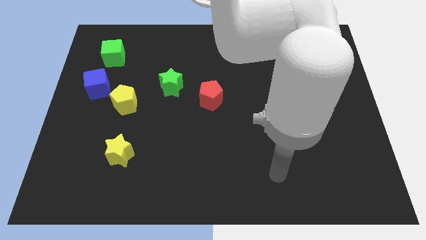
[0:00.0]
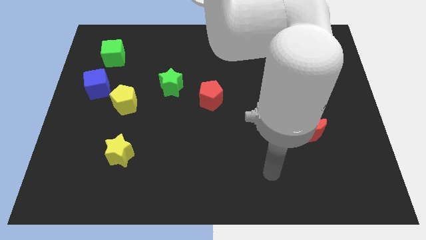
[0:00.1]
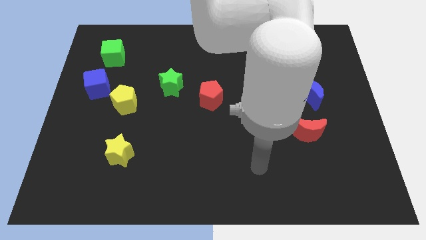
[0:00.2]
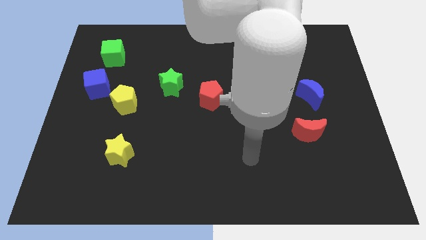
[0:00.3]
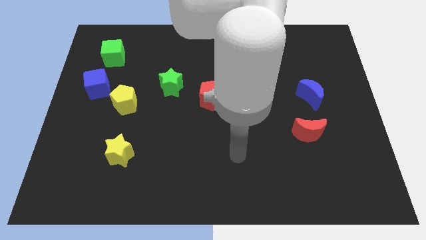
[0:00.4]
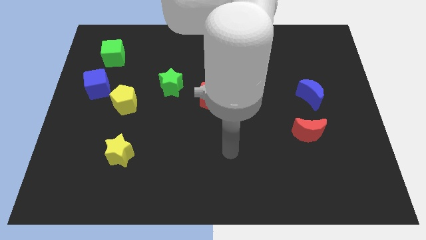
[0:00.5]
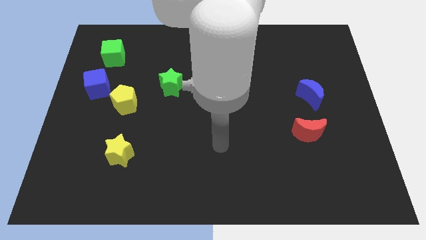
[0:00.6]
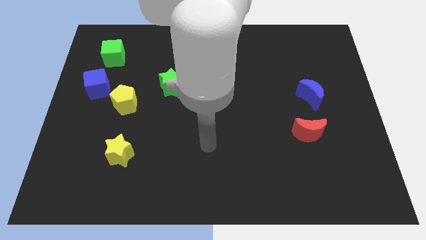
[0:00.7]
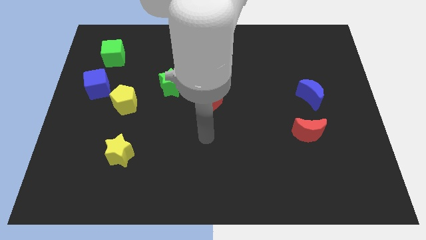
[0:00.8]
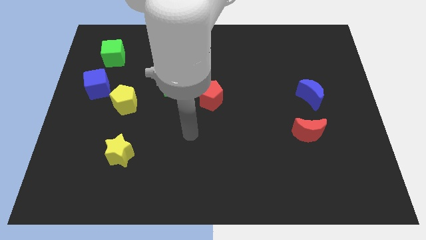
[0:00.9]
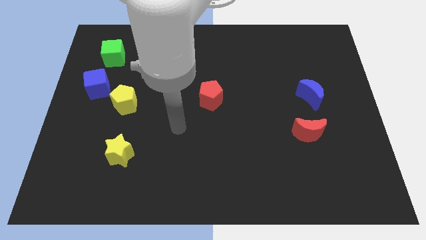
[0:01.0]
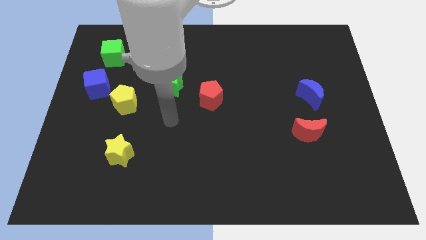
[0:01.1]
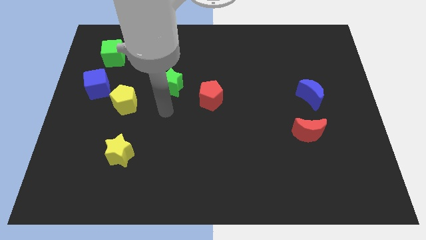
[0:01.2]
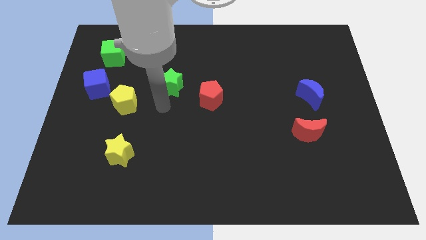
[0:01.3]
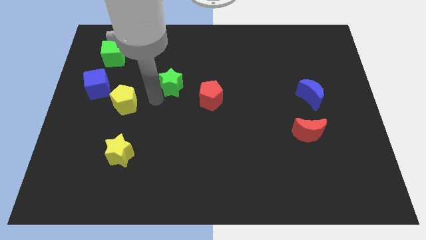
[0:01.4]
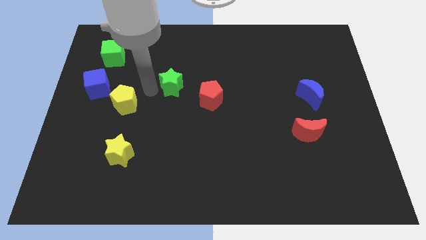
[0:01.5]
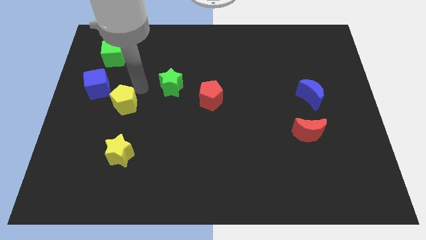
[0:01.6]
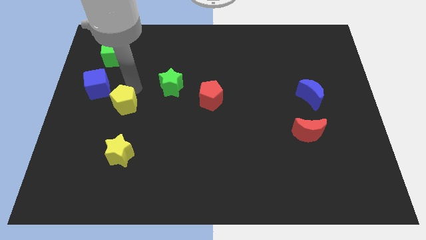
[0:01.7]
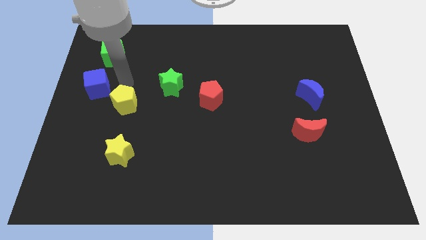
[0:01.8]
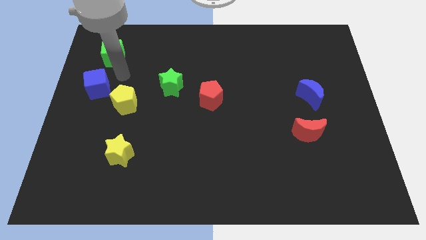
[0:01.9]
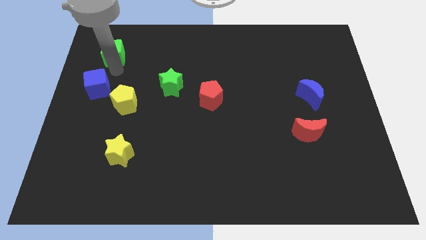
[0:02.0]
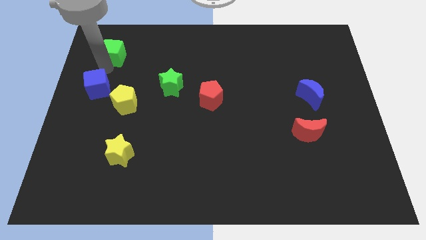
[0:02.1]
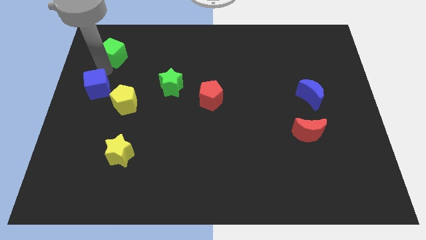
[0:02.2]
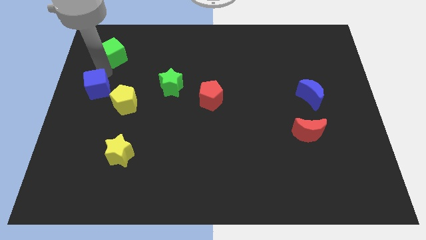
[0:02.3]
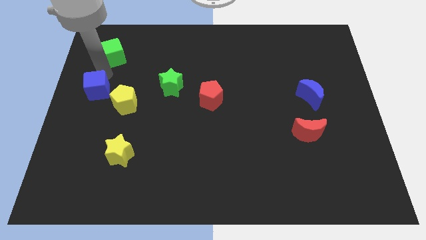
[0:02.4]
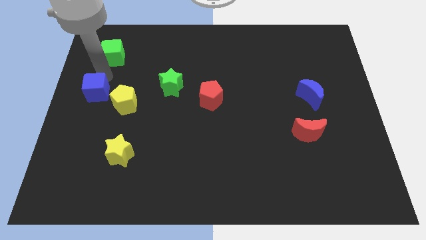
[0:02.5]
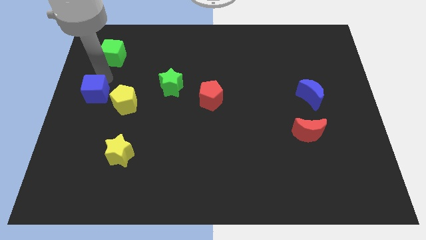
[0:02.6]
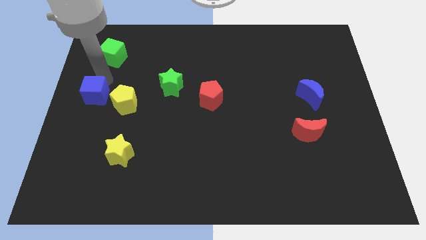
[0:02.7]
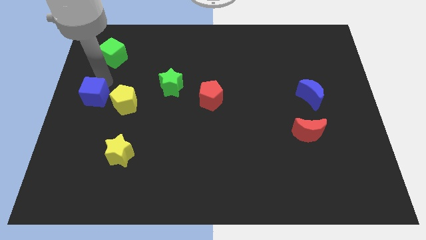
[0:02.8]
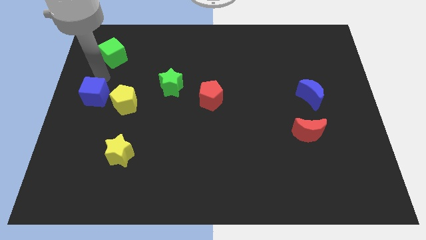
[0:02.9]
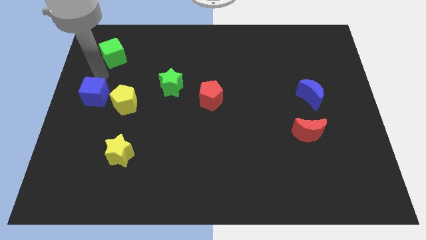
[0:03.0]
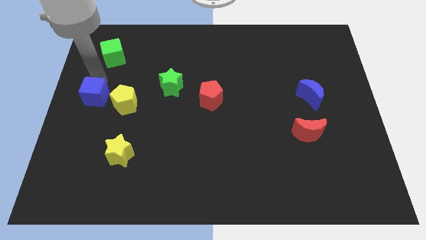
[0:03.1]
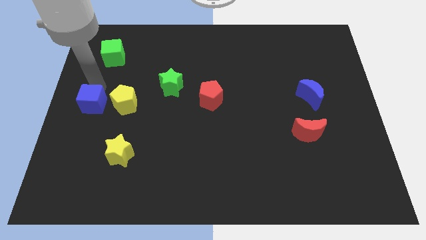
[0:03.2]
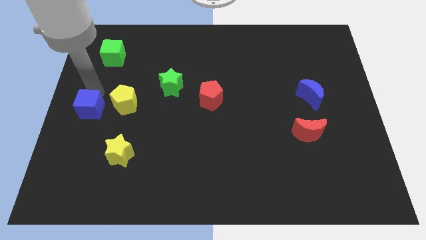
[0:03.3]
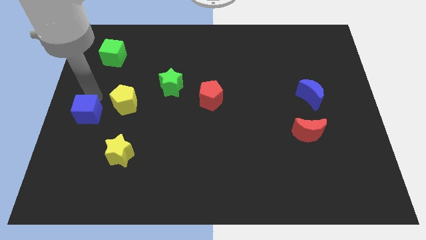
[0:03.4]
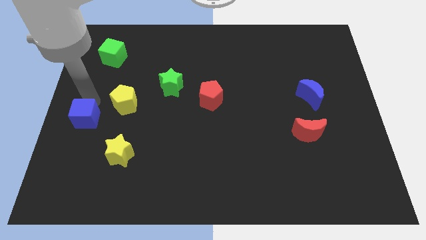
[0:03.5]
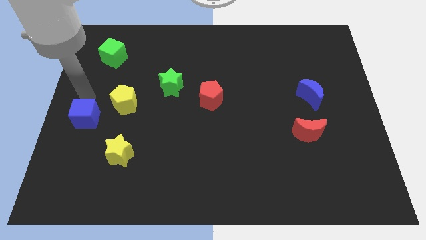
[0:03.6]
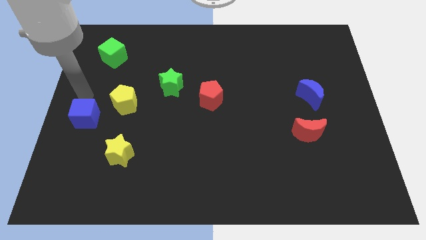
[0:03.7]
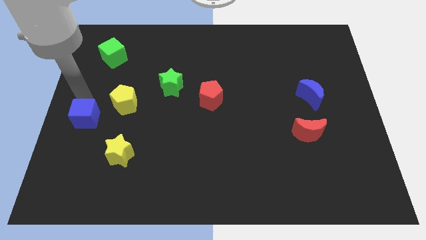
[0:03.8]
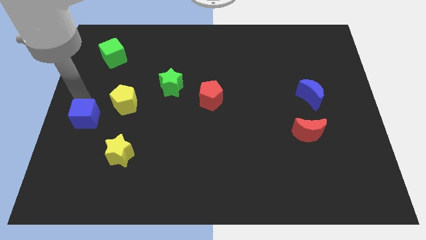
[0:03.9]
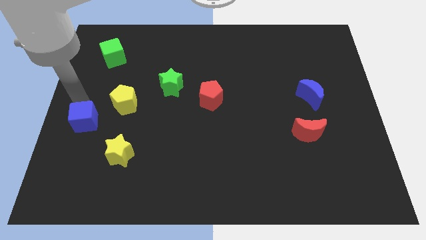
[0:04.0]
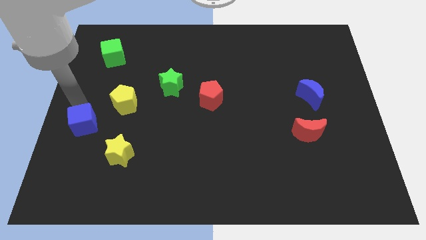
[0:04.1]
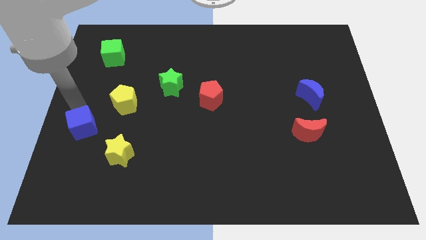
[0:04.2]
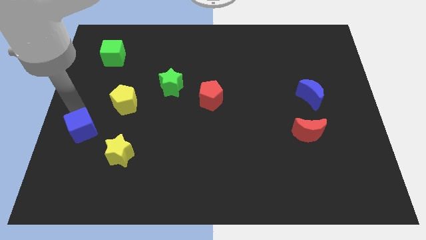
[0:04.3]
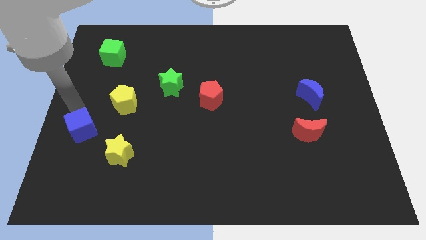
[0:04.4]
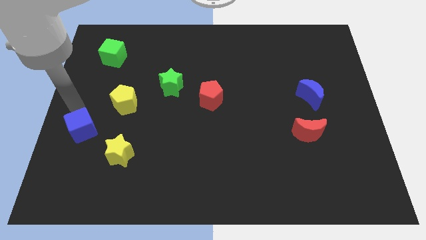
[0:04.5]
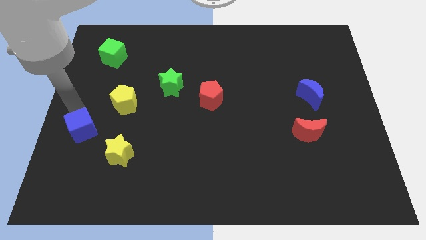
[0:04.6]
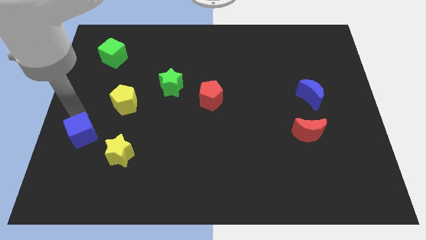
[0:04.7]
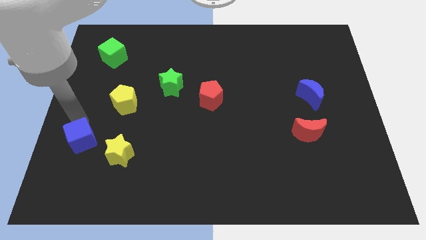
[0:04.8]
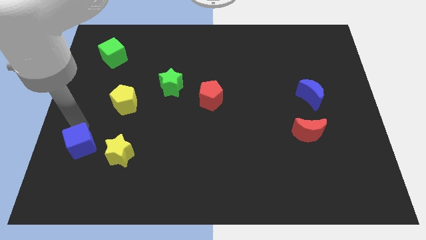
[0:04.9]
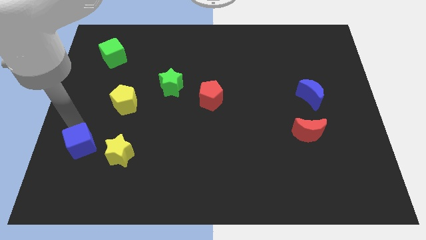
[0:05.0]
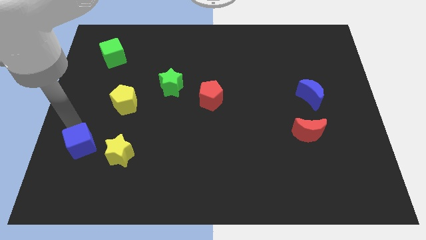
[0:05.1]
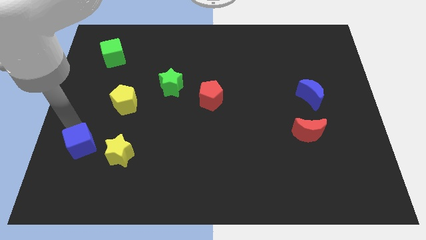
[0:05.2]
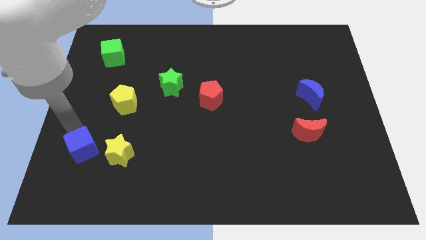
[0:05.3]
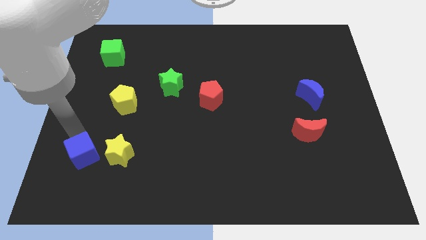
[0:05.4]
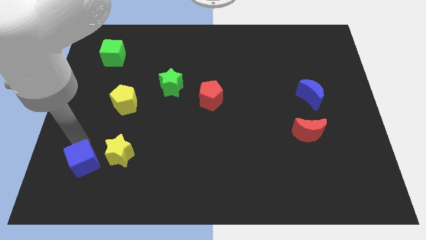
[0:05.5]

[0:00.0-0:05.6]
push the blue cube to the bottom left side of the yellow star

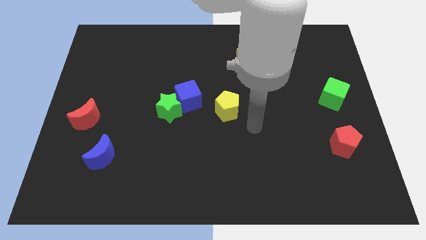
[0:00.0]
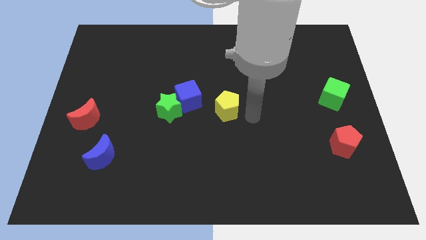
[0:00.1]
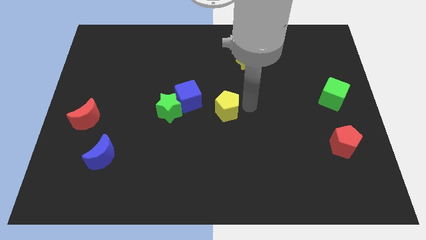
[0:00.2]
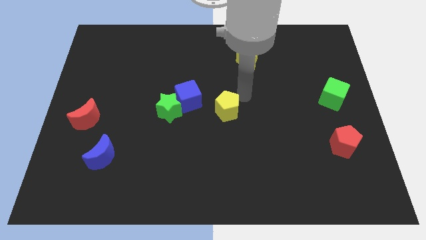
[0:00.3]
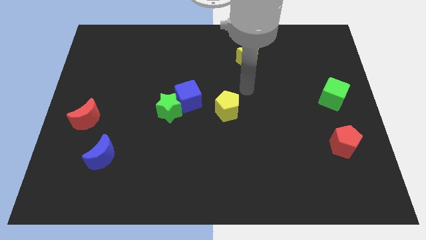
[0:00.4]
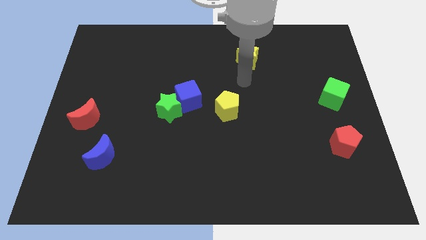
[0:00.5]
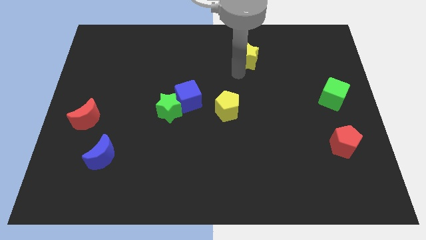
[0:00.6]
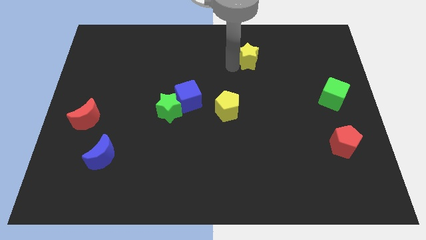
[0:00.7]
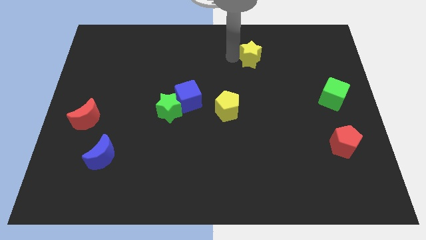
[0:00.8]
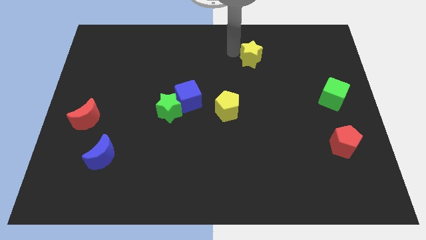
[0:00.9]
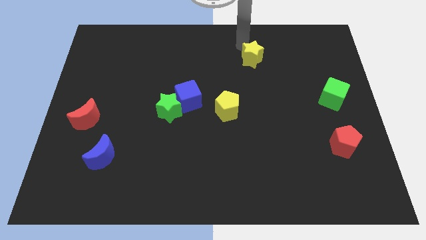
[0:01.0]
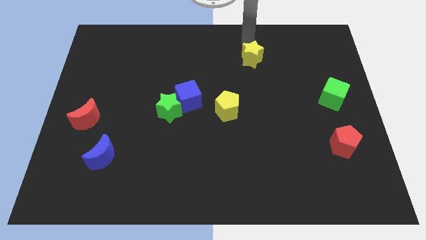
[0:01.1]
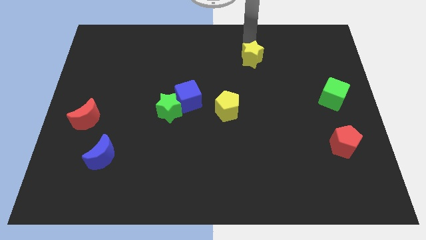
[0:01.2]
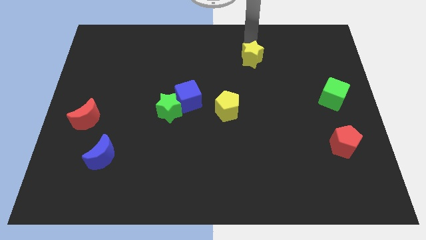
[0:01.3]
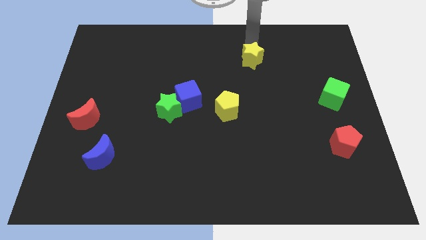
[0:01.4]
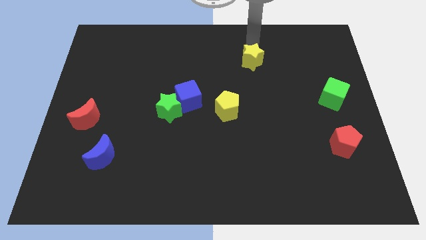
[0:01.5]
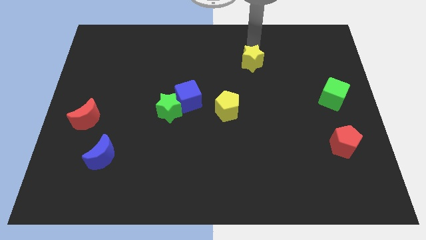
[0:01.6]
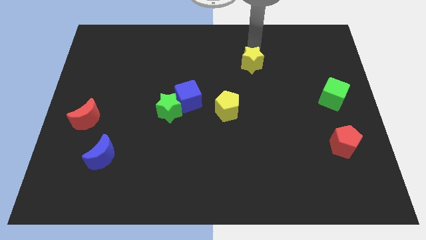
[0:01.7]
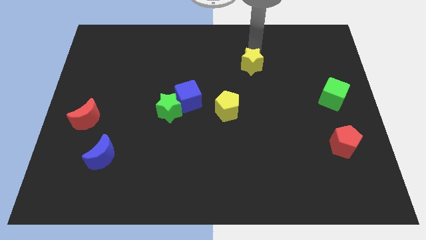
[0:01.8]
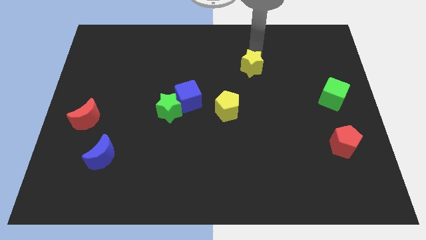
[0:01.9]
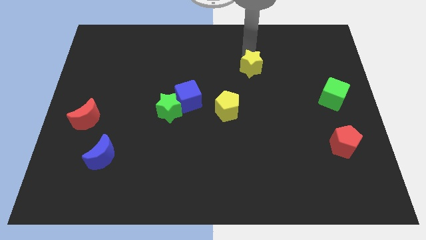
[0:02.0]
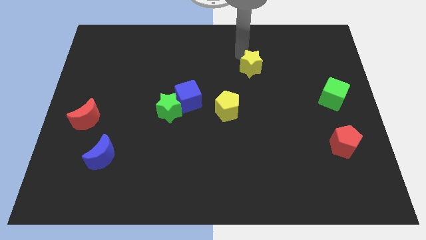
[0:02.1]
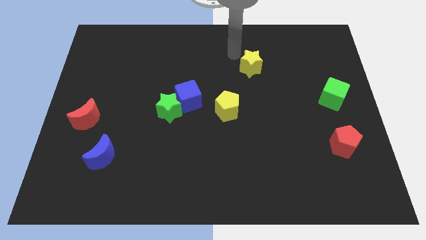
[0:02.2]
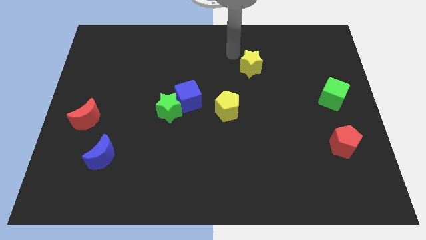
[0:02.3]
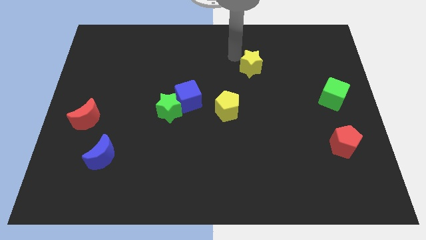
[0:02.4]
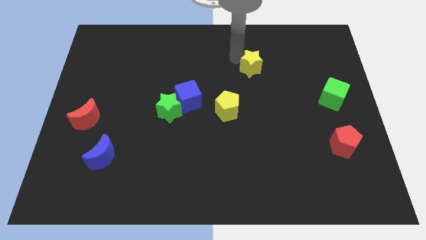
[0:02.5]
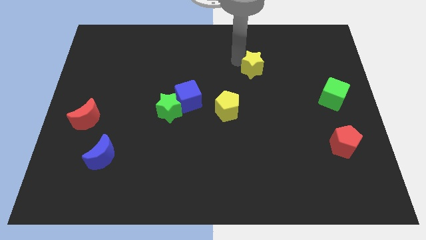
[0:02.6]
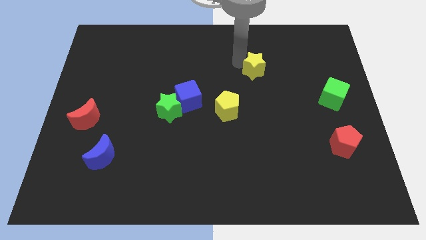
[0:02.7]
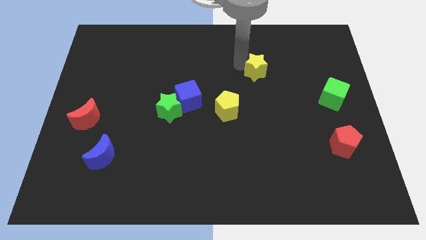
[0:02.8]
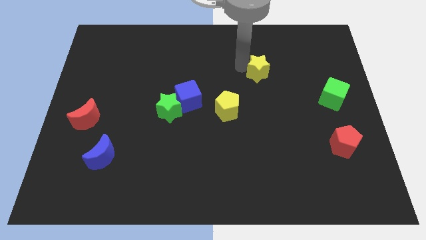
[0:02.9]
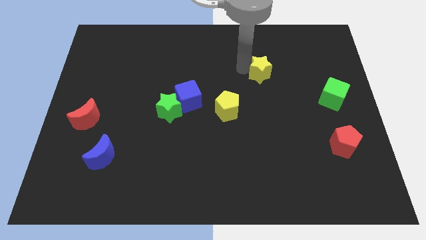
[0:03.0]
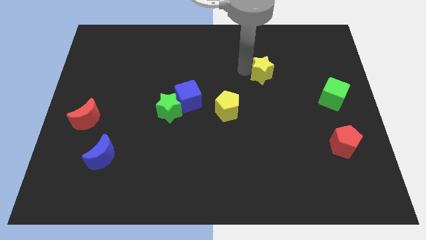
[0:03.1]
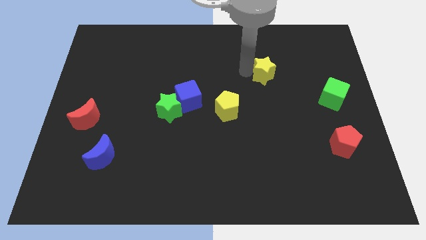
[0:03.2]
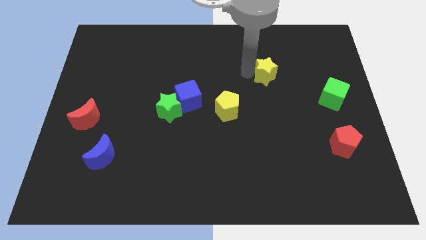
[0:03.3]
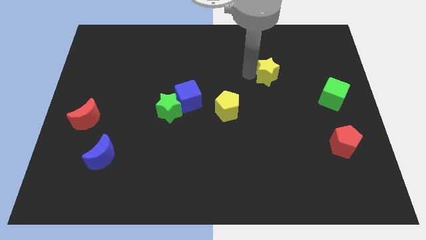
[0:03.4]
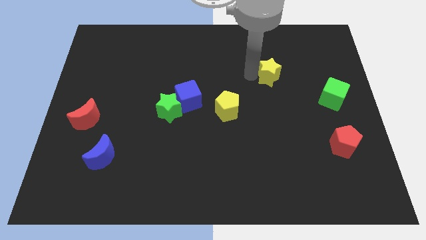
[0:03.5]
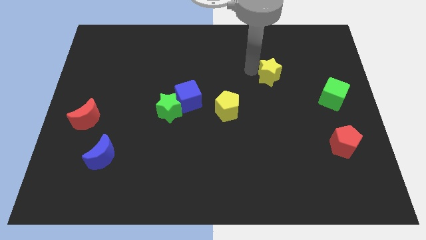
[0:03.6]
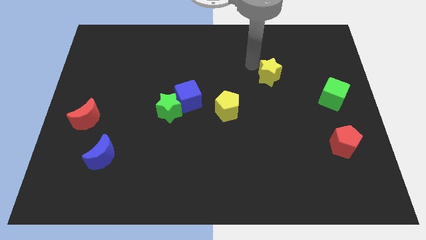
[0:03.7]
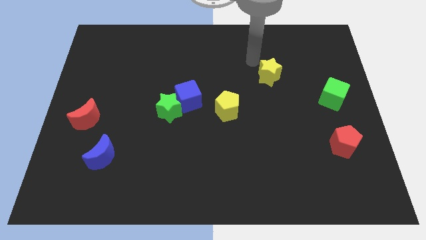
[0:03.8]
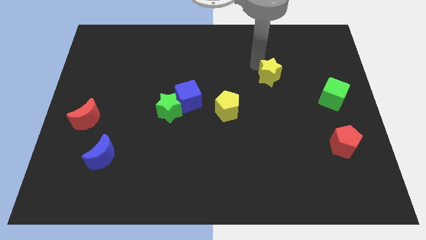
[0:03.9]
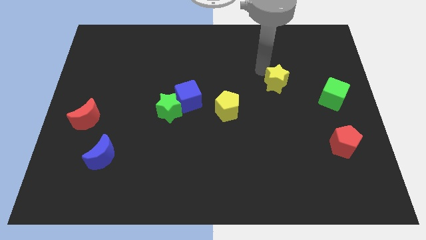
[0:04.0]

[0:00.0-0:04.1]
push the yellow star left of the green cube
